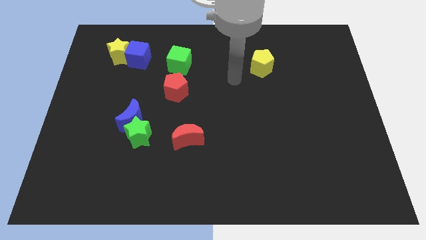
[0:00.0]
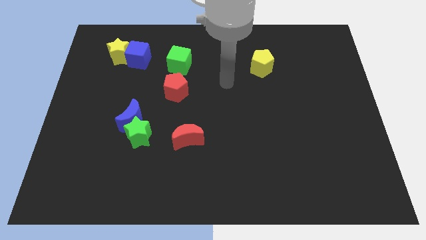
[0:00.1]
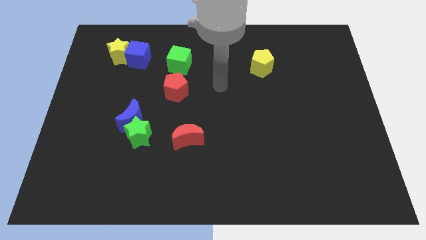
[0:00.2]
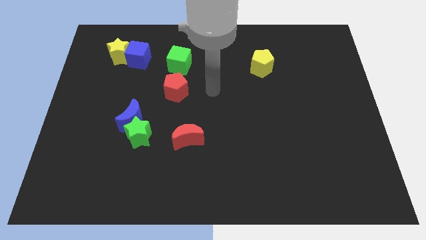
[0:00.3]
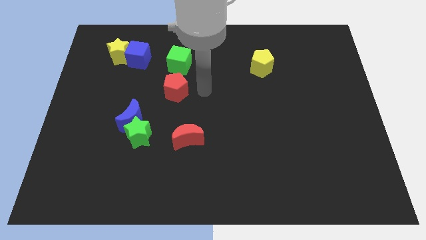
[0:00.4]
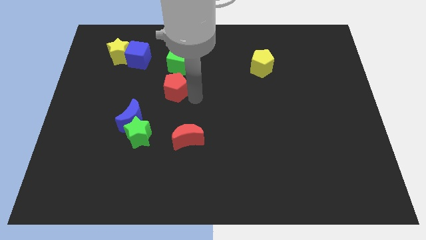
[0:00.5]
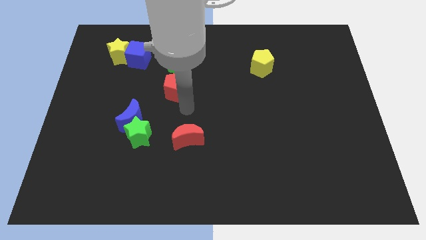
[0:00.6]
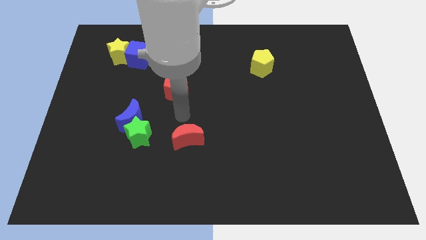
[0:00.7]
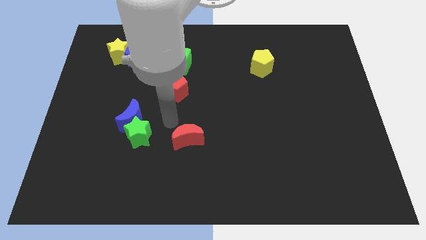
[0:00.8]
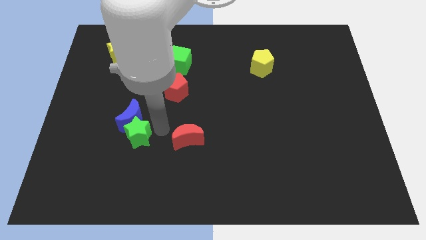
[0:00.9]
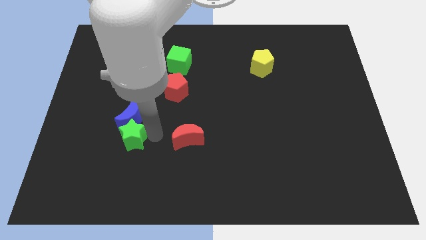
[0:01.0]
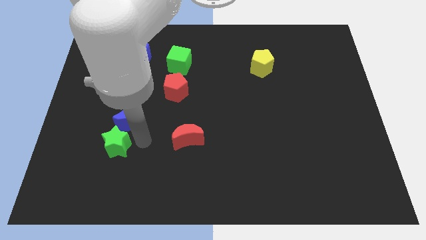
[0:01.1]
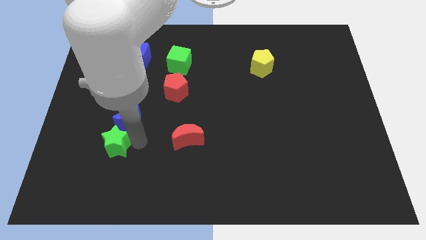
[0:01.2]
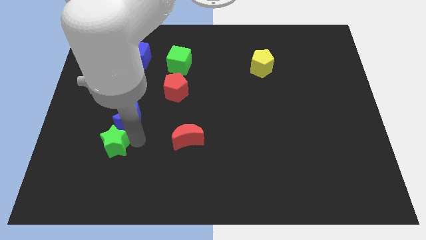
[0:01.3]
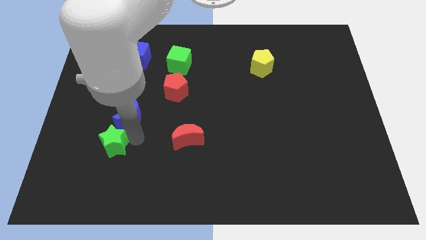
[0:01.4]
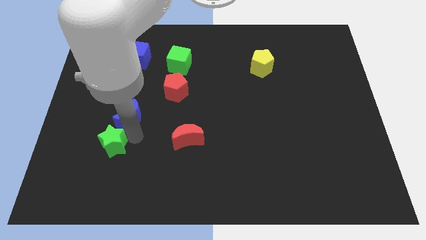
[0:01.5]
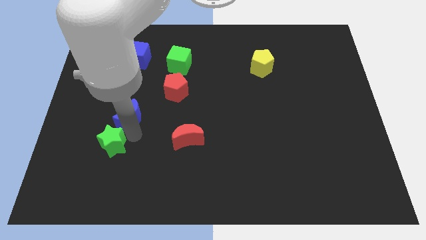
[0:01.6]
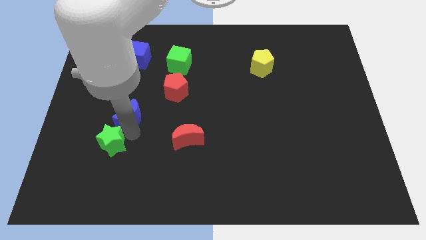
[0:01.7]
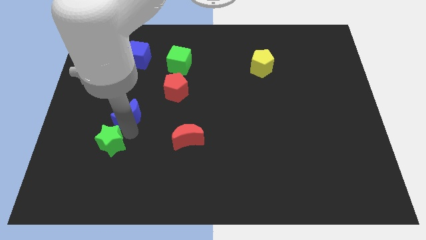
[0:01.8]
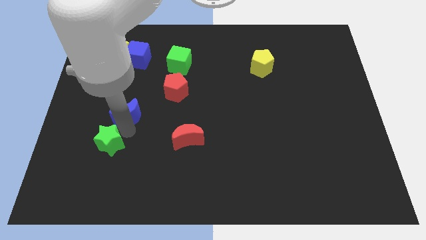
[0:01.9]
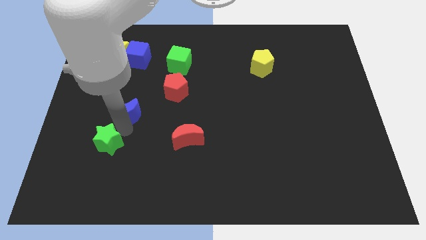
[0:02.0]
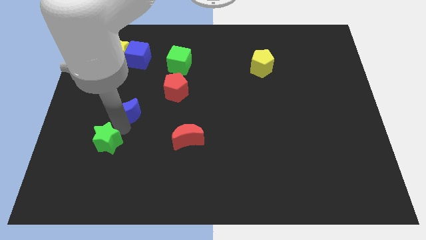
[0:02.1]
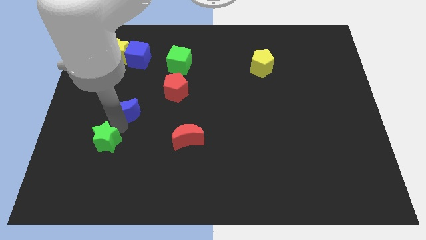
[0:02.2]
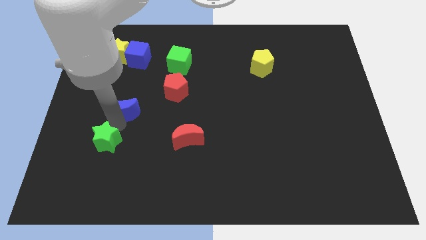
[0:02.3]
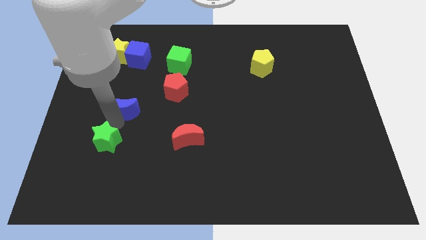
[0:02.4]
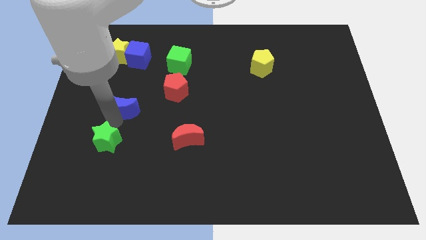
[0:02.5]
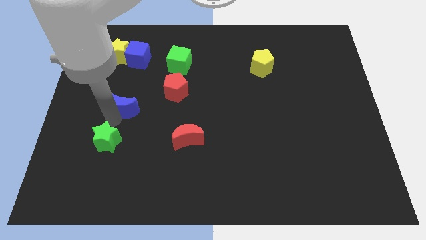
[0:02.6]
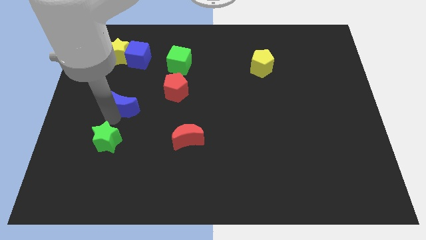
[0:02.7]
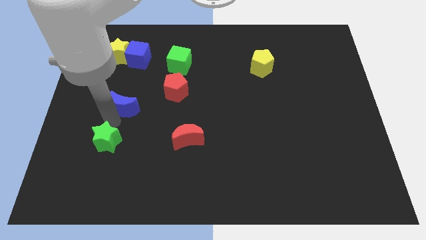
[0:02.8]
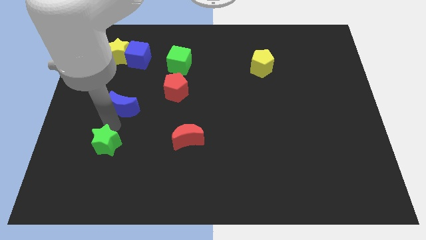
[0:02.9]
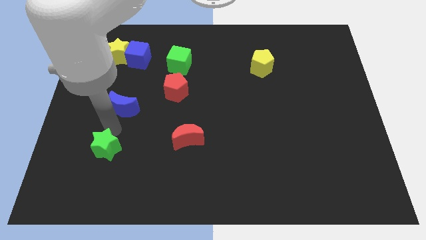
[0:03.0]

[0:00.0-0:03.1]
move the blue moon away from the green star

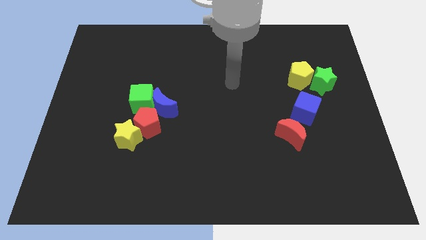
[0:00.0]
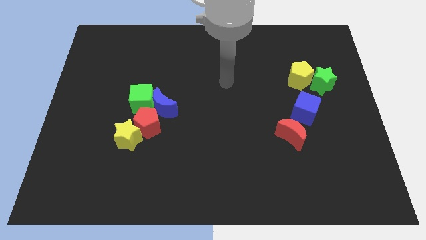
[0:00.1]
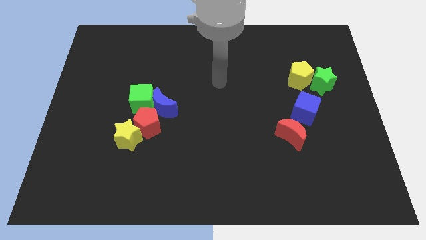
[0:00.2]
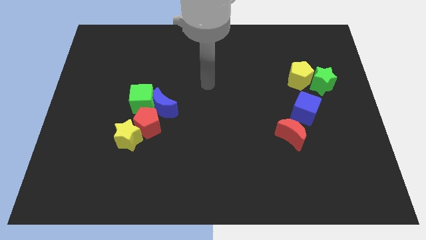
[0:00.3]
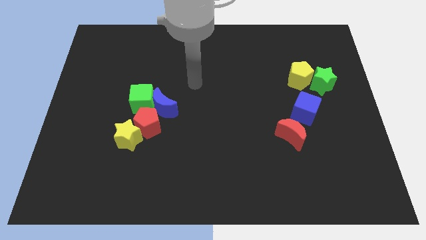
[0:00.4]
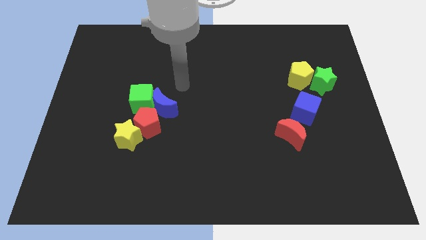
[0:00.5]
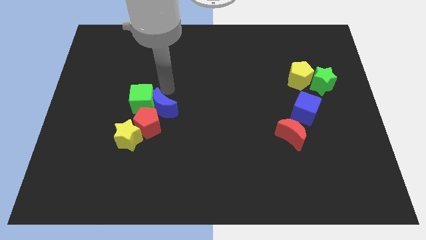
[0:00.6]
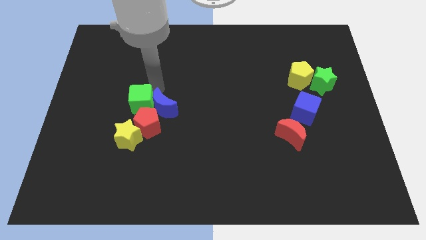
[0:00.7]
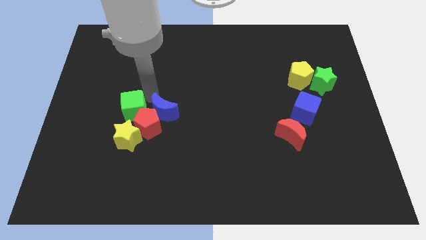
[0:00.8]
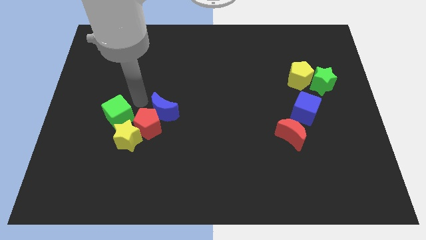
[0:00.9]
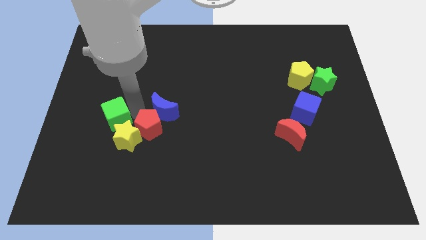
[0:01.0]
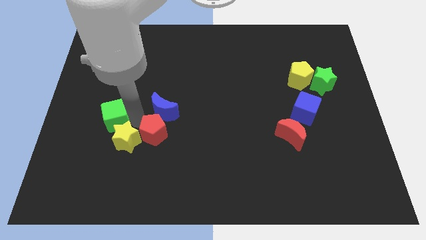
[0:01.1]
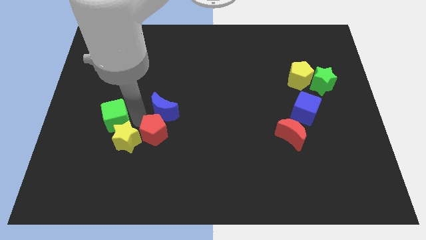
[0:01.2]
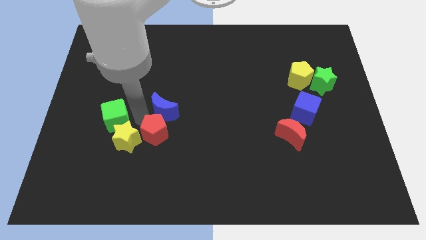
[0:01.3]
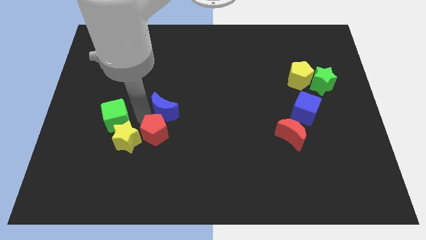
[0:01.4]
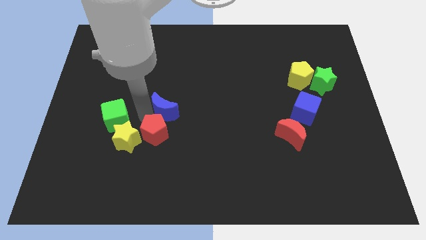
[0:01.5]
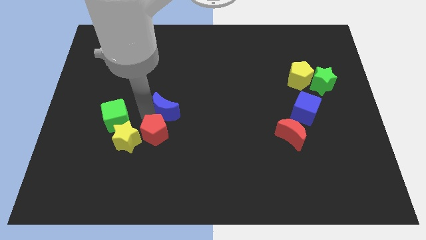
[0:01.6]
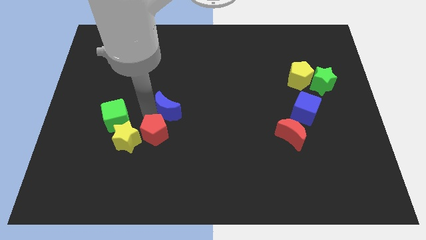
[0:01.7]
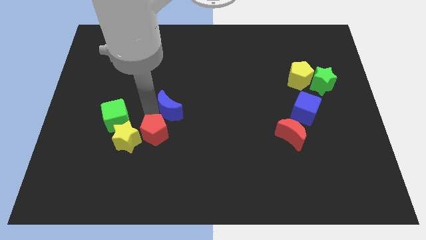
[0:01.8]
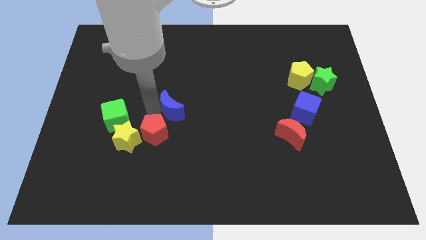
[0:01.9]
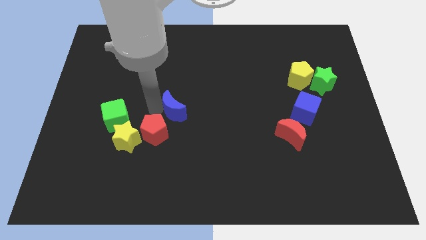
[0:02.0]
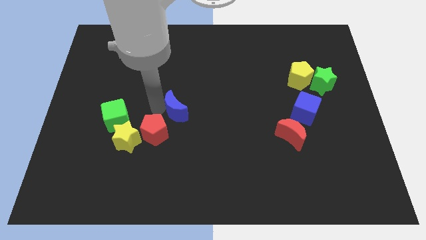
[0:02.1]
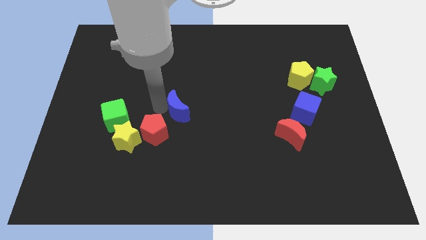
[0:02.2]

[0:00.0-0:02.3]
move the blue moon away from the green cube and red pentagon

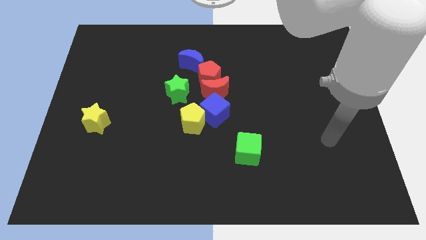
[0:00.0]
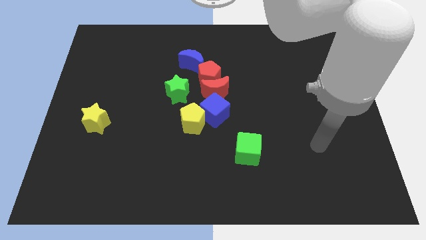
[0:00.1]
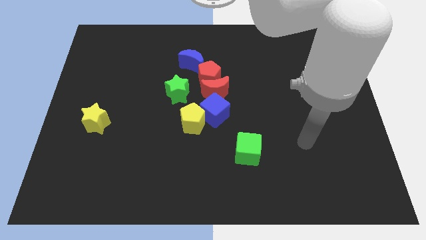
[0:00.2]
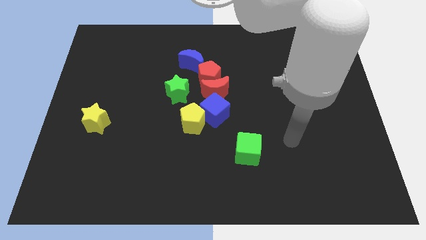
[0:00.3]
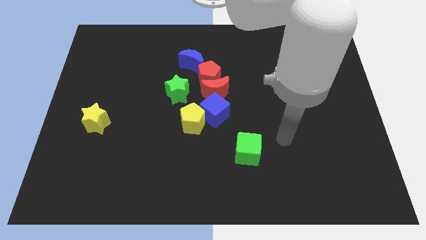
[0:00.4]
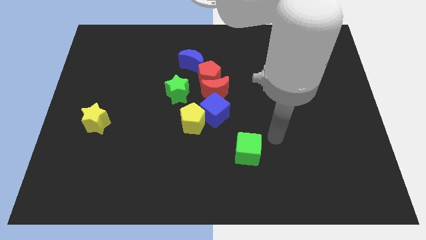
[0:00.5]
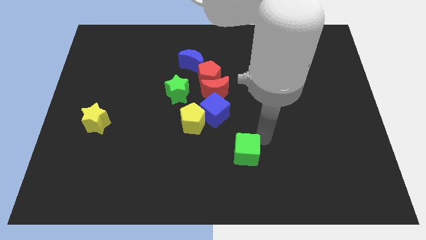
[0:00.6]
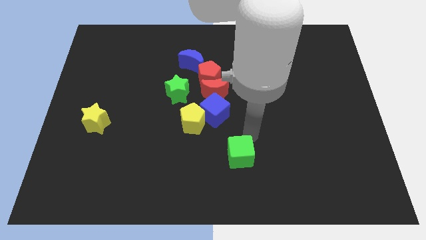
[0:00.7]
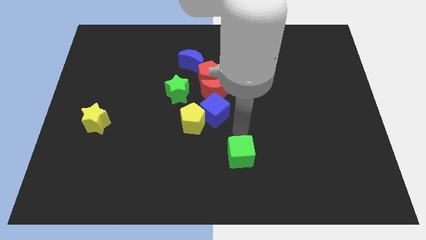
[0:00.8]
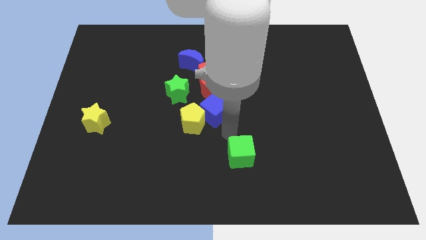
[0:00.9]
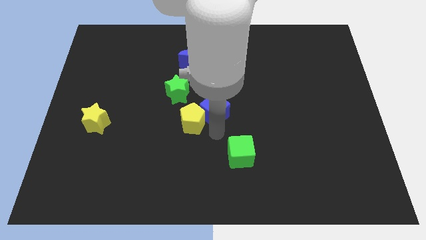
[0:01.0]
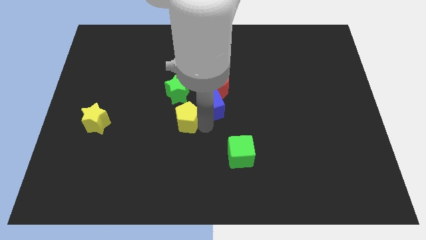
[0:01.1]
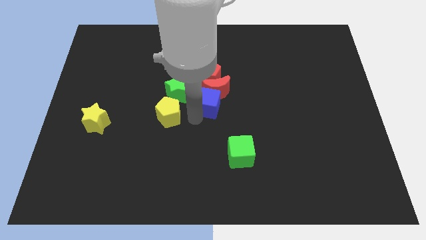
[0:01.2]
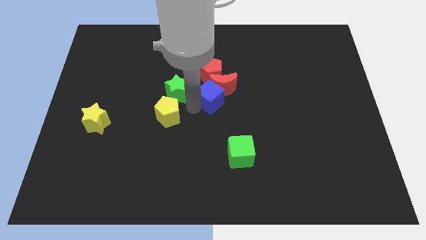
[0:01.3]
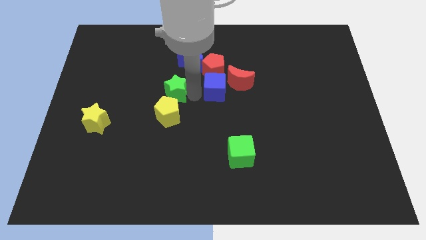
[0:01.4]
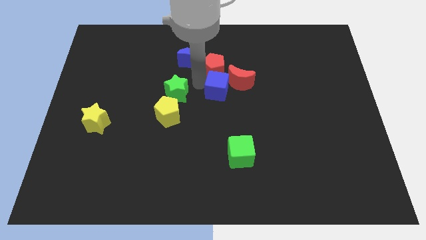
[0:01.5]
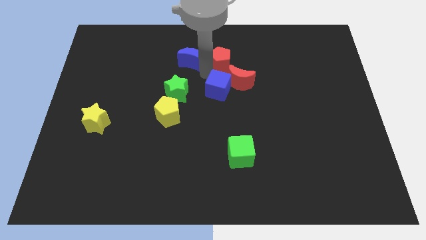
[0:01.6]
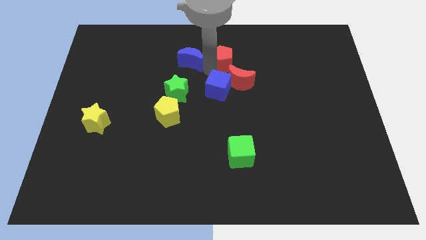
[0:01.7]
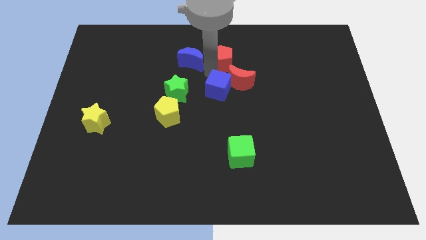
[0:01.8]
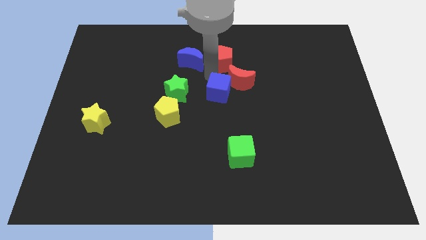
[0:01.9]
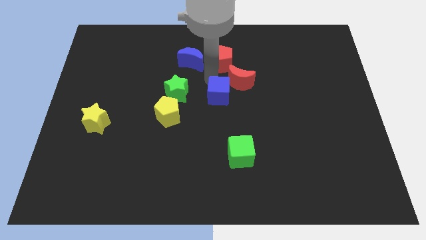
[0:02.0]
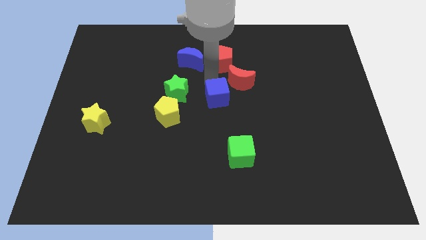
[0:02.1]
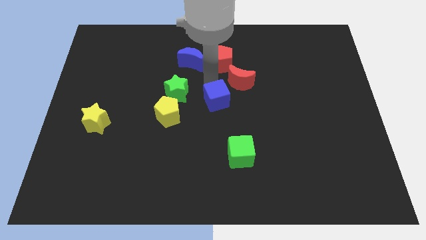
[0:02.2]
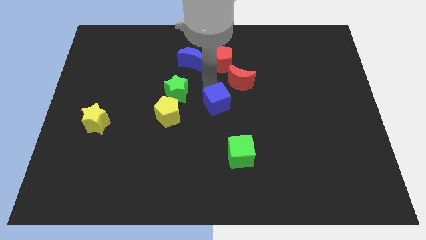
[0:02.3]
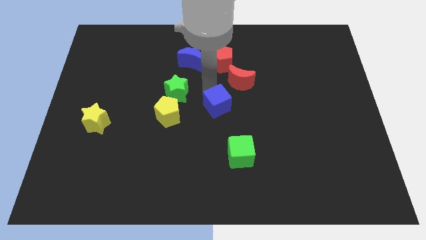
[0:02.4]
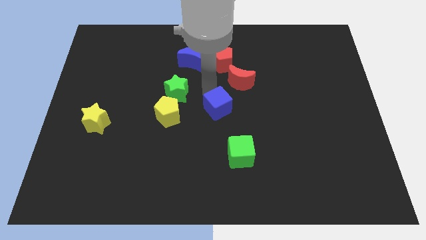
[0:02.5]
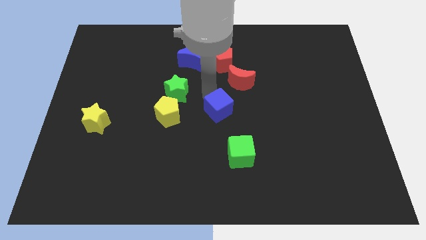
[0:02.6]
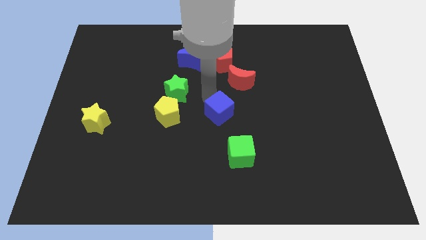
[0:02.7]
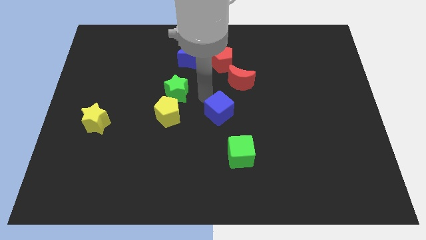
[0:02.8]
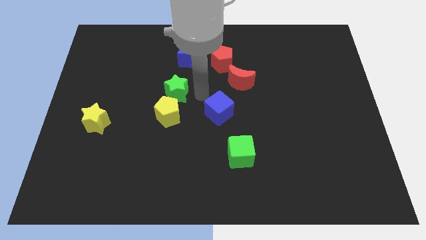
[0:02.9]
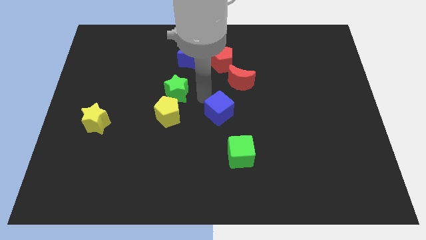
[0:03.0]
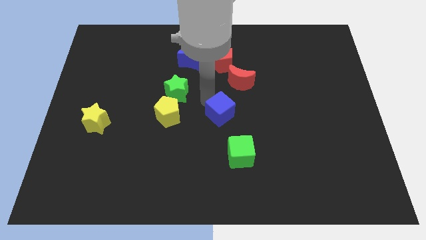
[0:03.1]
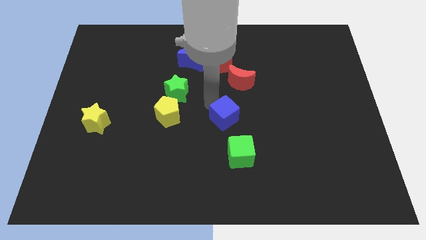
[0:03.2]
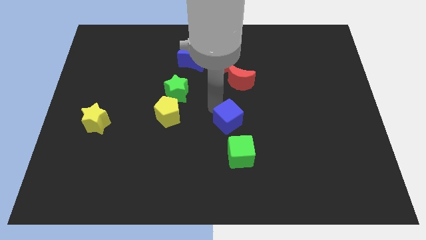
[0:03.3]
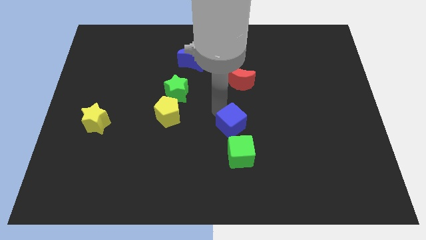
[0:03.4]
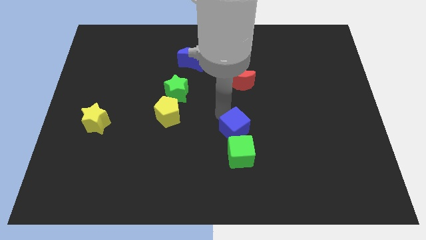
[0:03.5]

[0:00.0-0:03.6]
separate the blue cube from the yellow pentagon and red moon

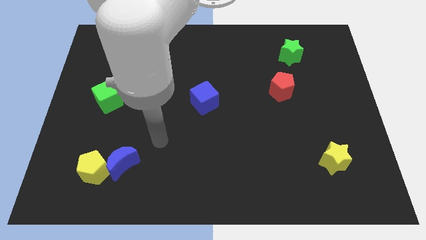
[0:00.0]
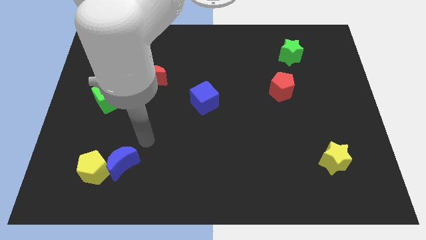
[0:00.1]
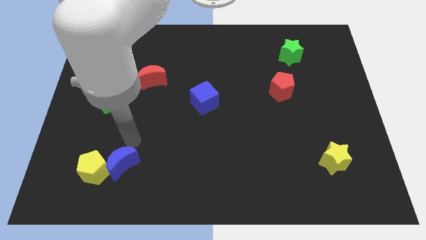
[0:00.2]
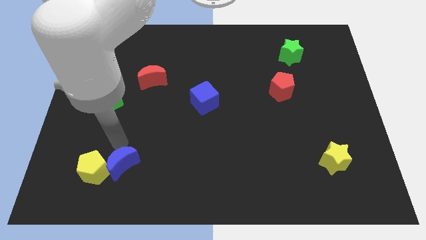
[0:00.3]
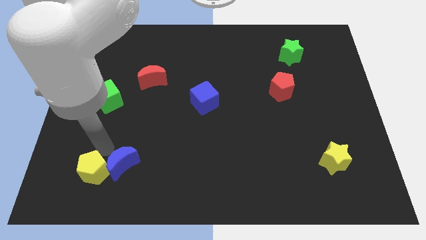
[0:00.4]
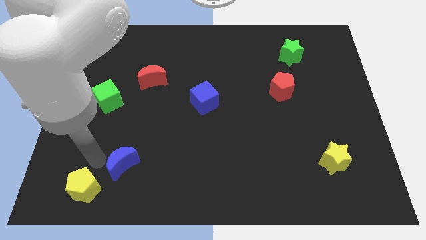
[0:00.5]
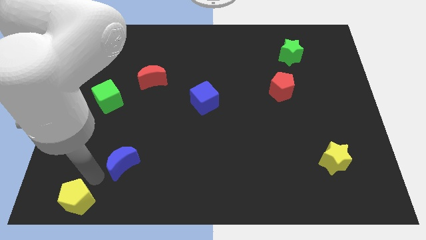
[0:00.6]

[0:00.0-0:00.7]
pull the blue moon apart from the yellow pentagon
